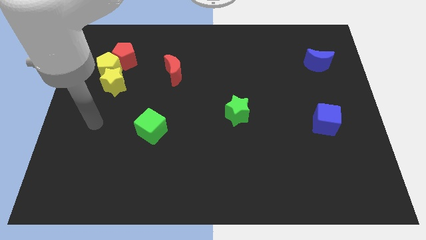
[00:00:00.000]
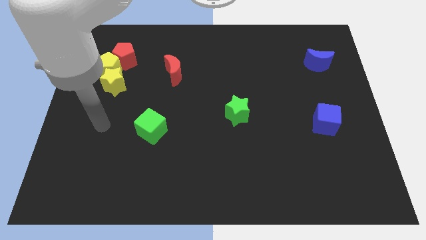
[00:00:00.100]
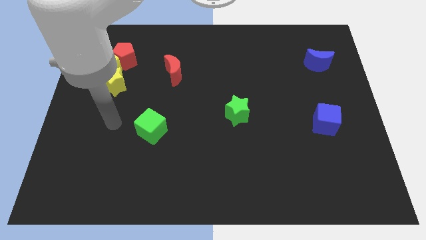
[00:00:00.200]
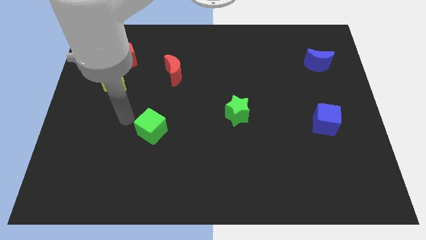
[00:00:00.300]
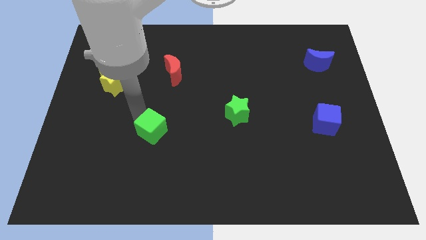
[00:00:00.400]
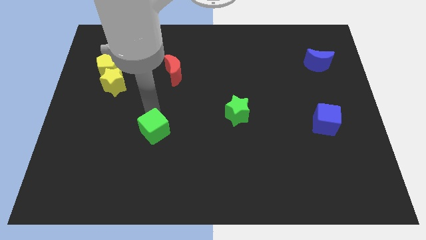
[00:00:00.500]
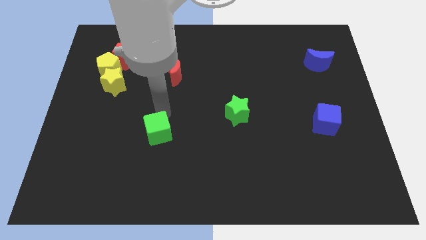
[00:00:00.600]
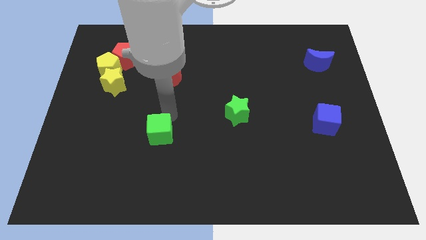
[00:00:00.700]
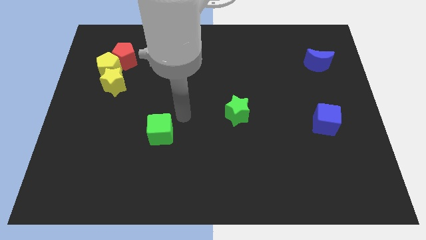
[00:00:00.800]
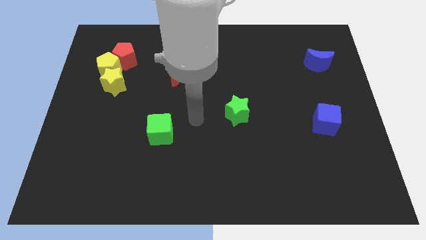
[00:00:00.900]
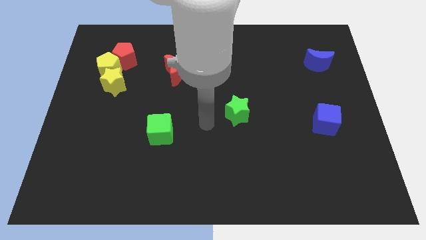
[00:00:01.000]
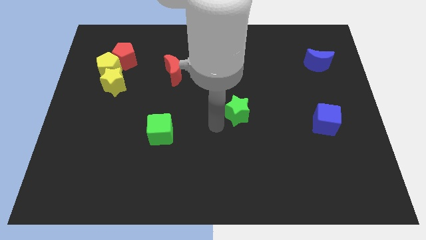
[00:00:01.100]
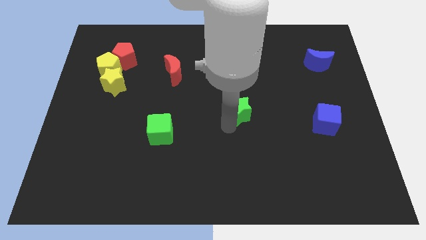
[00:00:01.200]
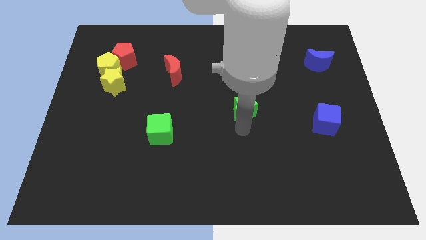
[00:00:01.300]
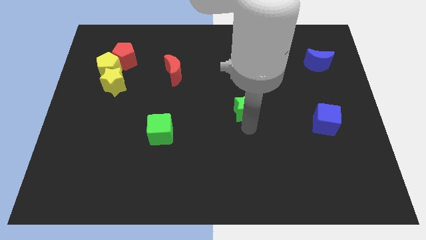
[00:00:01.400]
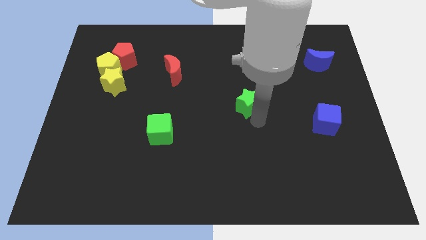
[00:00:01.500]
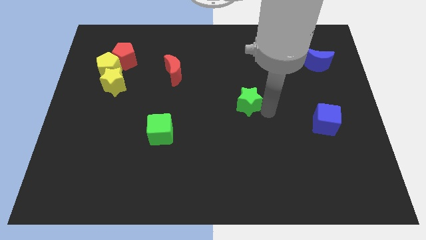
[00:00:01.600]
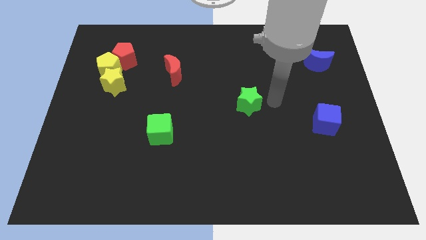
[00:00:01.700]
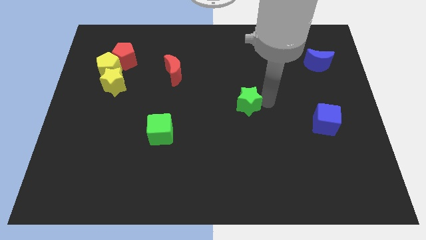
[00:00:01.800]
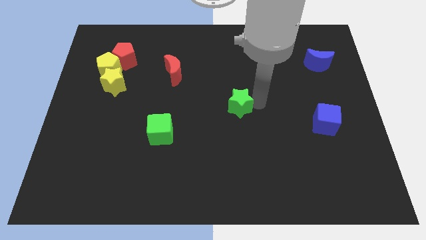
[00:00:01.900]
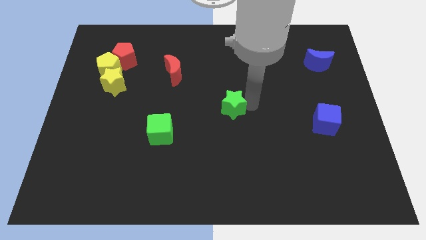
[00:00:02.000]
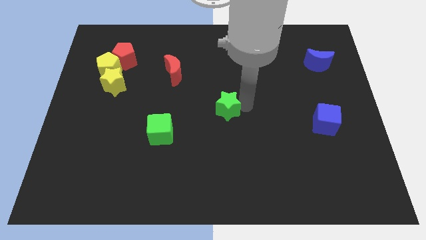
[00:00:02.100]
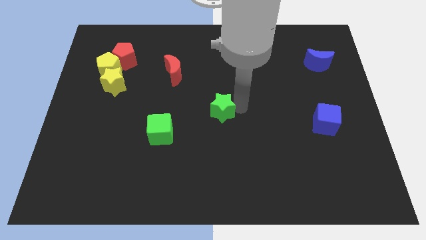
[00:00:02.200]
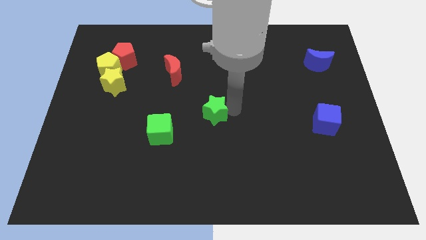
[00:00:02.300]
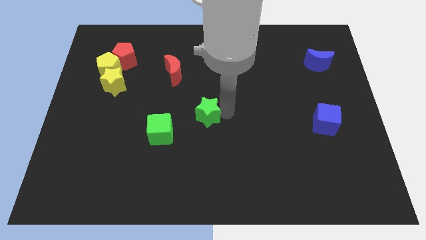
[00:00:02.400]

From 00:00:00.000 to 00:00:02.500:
slide the green star a little bit to the left

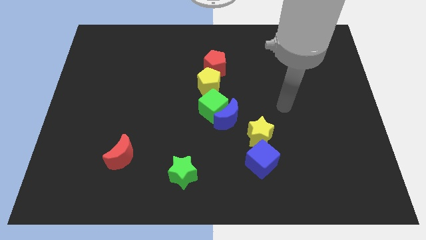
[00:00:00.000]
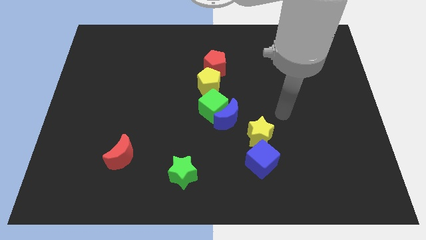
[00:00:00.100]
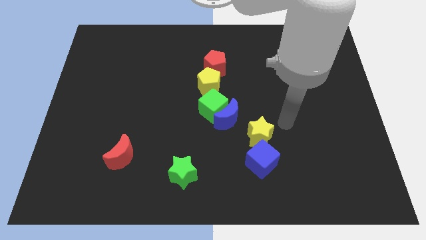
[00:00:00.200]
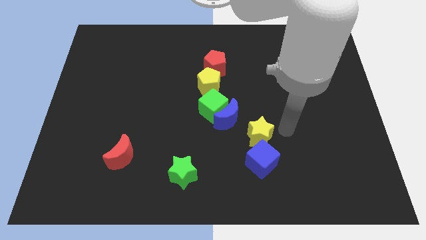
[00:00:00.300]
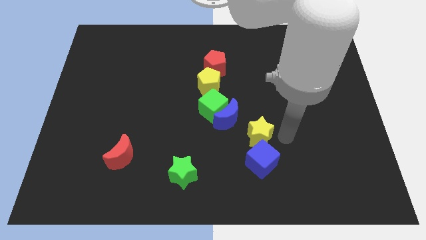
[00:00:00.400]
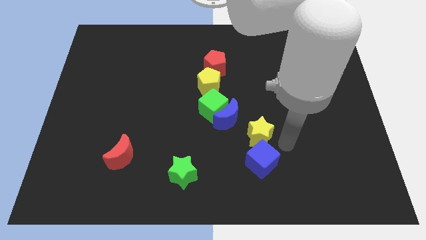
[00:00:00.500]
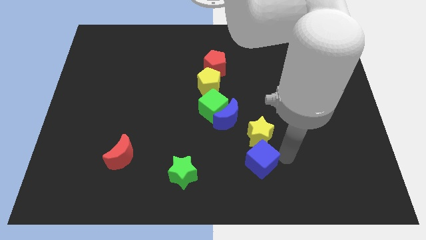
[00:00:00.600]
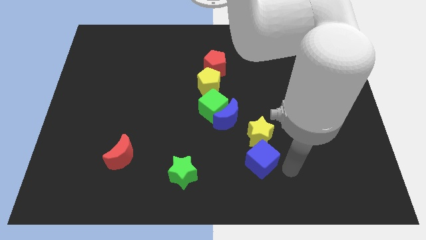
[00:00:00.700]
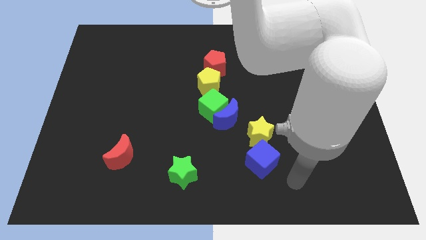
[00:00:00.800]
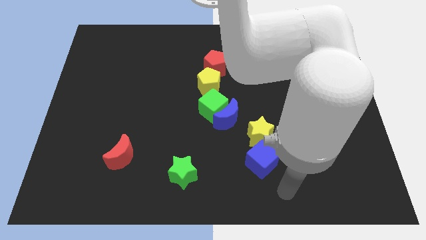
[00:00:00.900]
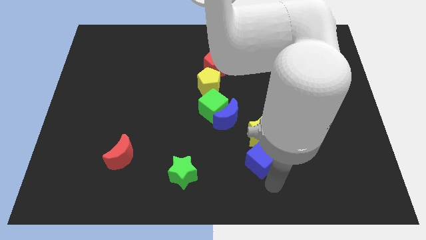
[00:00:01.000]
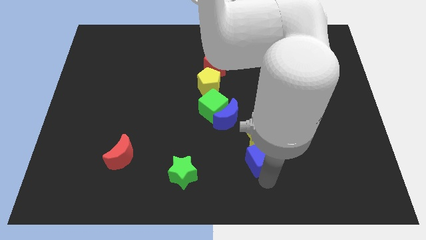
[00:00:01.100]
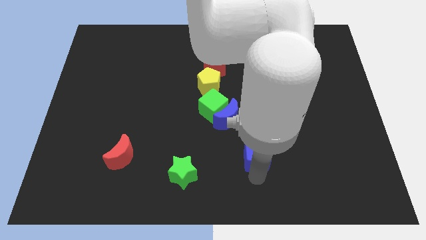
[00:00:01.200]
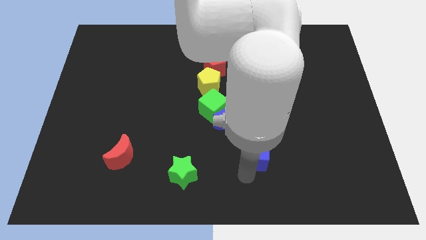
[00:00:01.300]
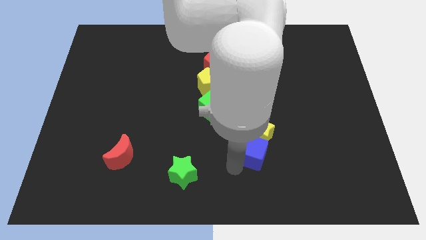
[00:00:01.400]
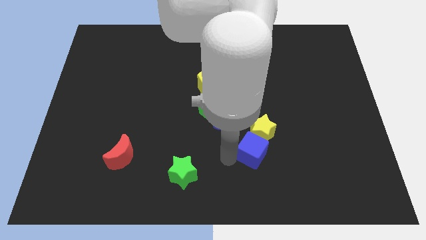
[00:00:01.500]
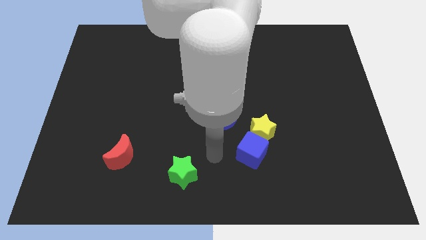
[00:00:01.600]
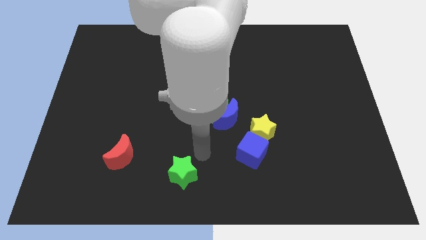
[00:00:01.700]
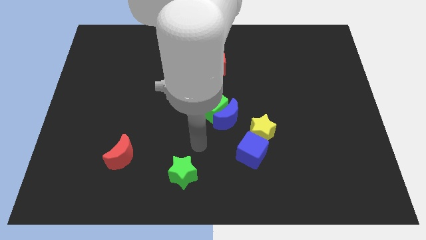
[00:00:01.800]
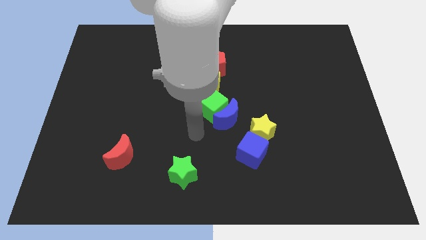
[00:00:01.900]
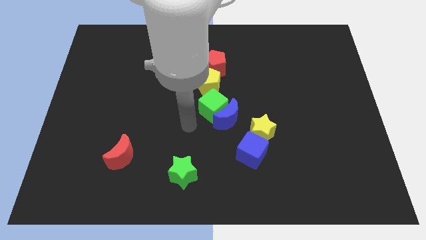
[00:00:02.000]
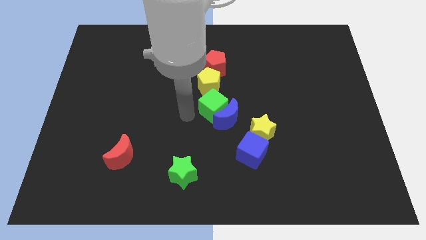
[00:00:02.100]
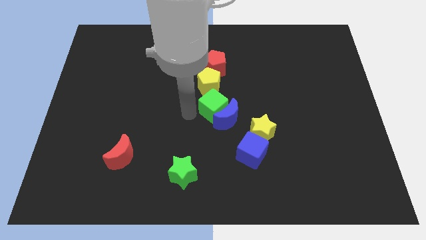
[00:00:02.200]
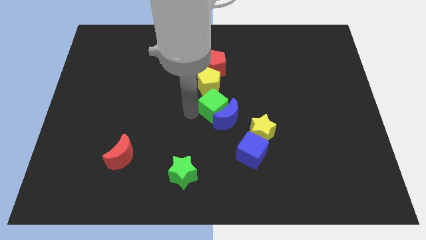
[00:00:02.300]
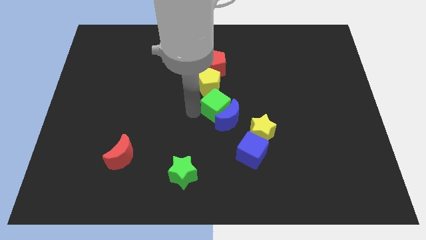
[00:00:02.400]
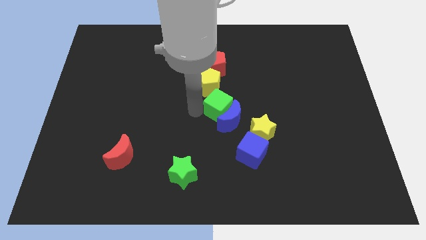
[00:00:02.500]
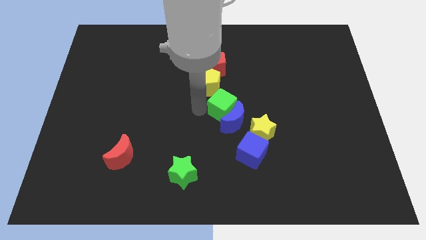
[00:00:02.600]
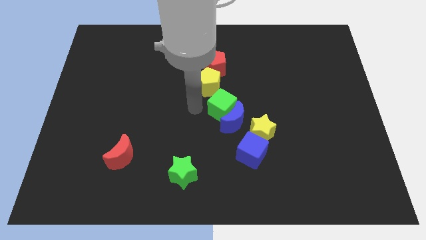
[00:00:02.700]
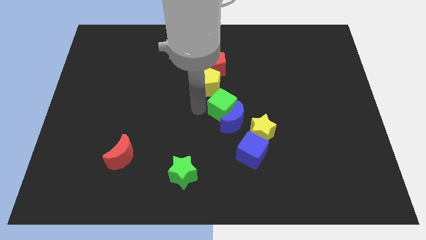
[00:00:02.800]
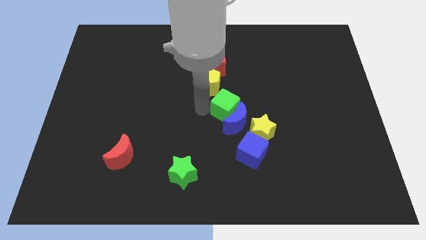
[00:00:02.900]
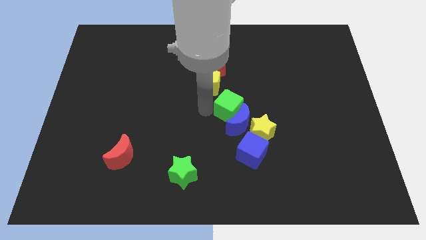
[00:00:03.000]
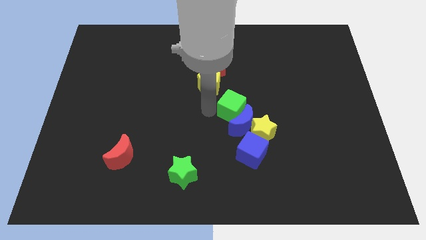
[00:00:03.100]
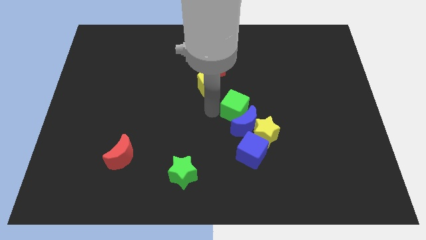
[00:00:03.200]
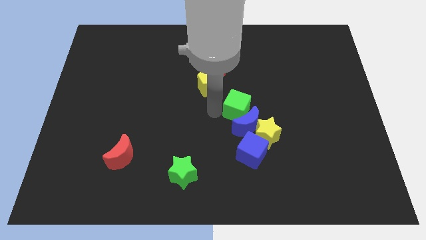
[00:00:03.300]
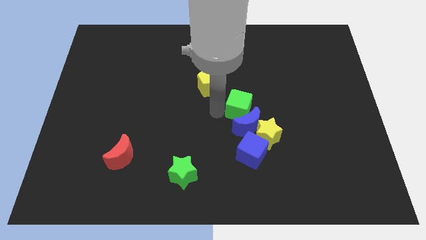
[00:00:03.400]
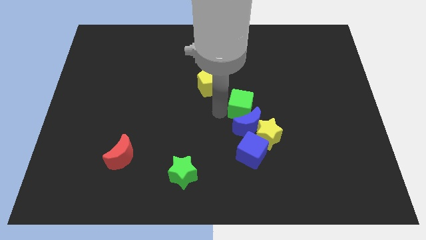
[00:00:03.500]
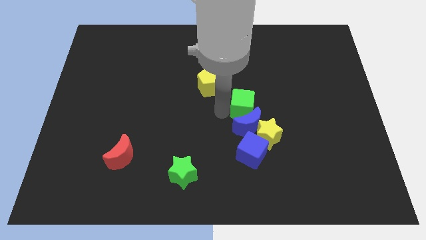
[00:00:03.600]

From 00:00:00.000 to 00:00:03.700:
push the green cube to the right a little bit

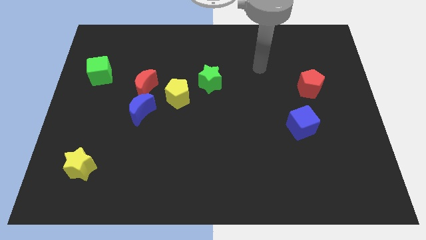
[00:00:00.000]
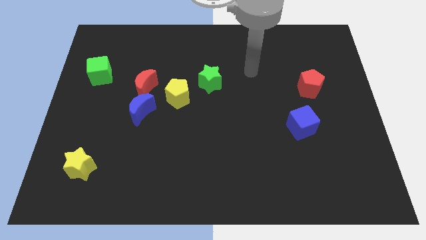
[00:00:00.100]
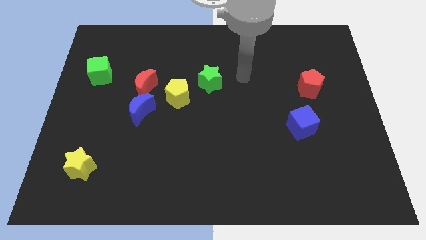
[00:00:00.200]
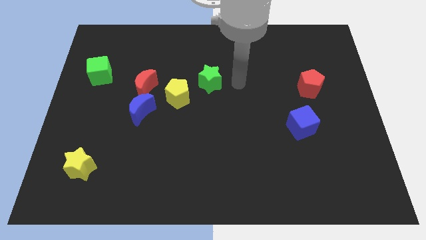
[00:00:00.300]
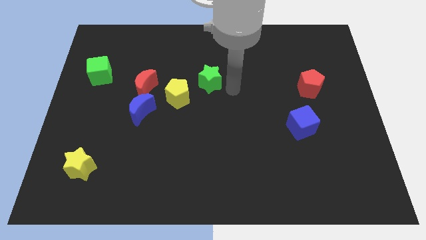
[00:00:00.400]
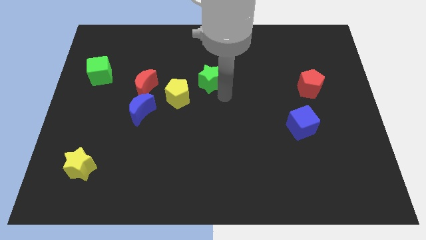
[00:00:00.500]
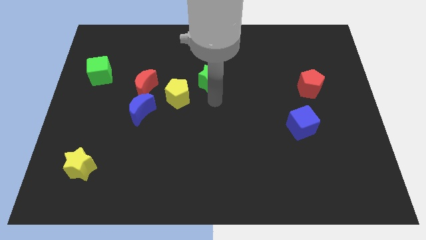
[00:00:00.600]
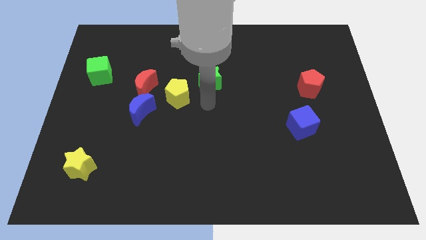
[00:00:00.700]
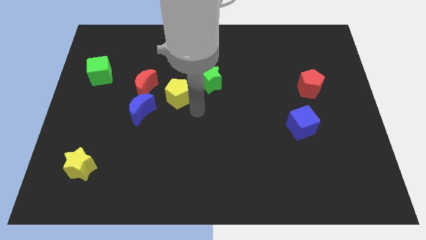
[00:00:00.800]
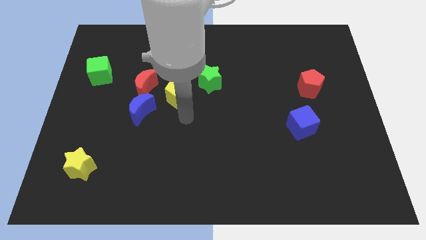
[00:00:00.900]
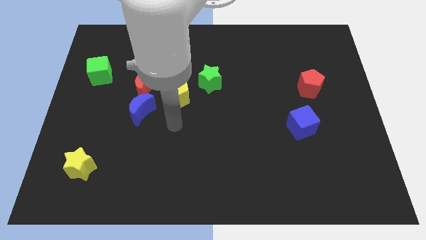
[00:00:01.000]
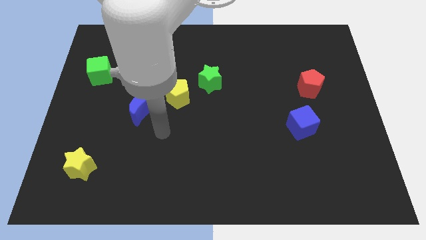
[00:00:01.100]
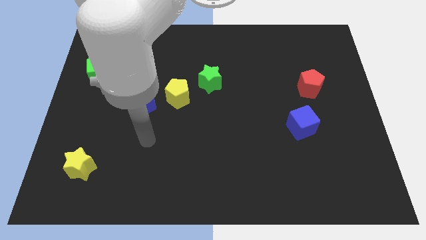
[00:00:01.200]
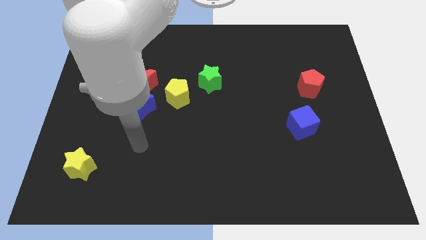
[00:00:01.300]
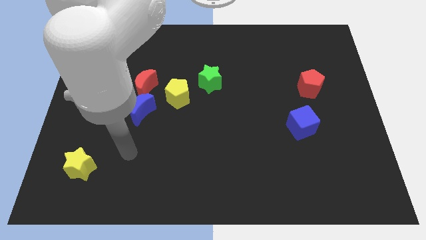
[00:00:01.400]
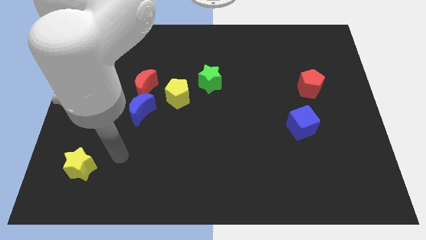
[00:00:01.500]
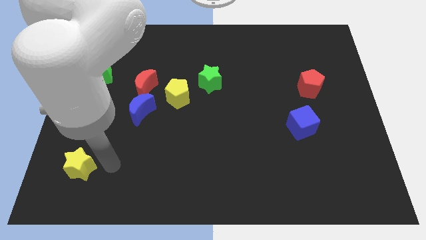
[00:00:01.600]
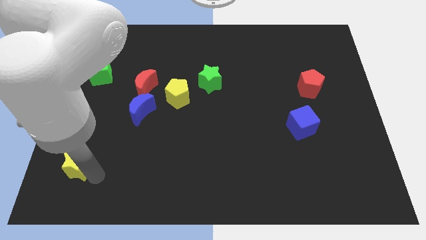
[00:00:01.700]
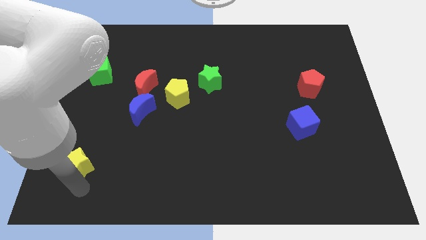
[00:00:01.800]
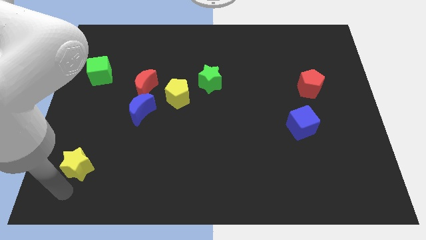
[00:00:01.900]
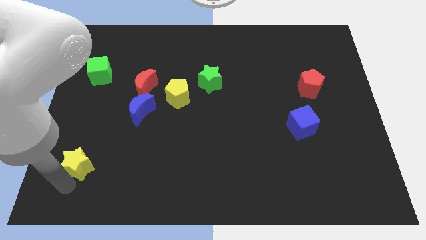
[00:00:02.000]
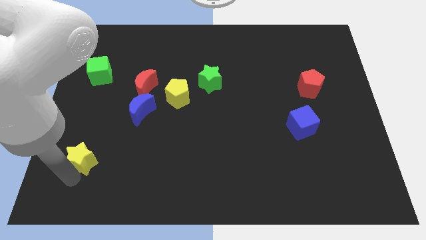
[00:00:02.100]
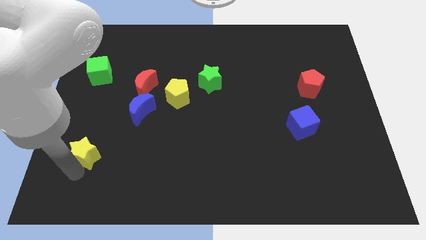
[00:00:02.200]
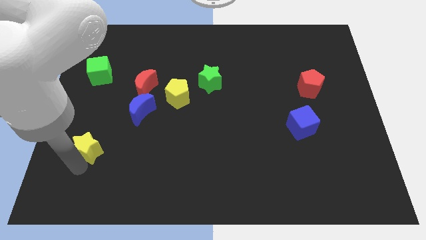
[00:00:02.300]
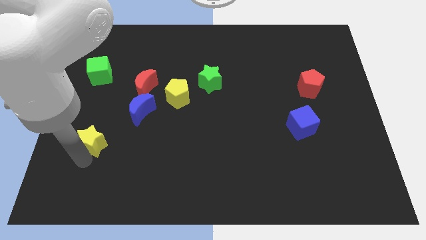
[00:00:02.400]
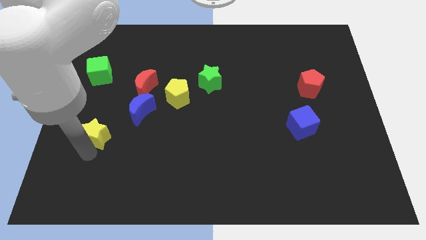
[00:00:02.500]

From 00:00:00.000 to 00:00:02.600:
slightly move the yellow star up
